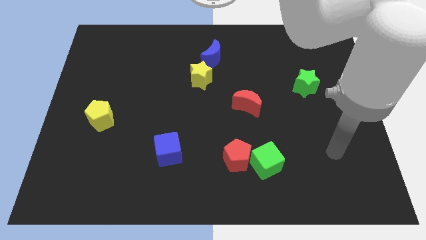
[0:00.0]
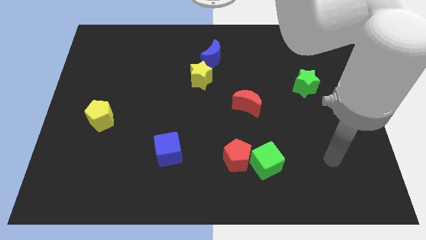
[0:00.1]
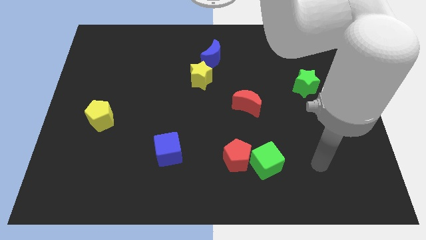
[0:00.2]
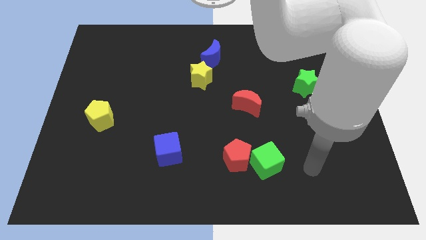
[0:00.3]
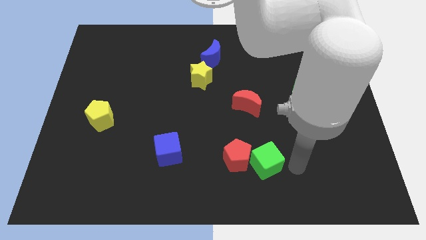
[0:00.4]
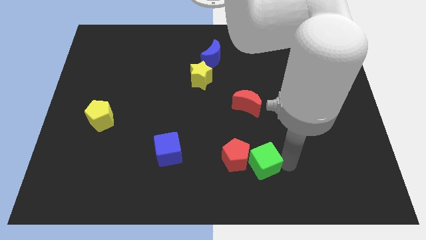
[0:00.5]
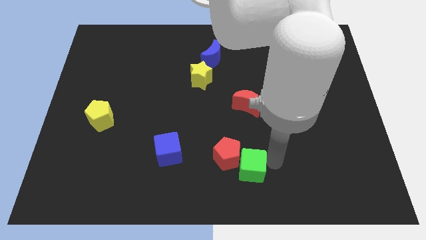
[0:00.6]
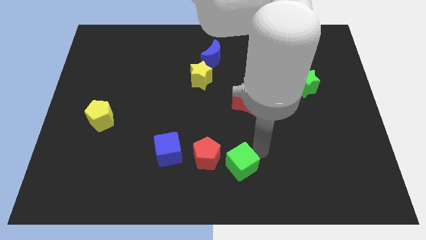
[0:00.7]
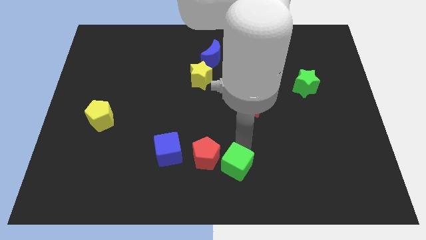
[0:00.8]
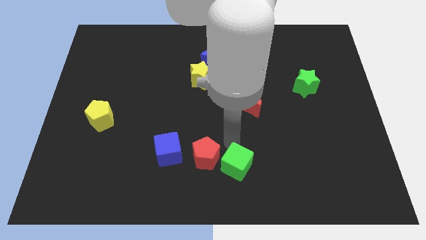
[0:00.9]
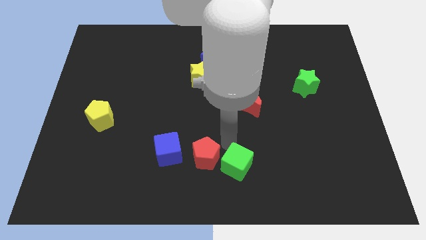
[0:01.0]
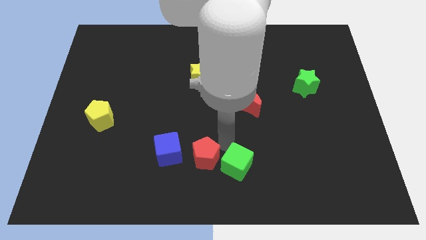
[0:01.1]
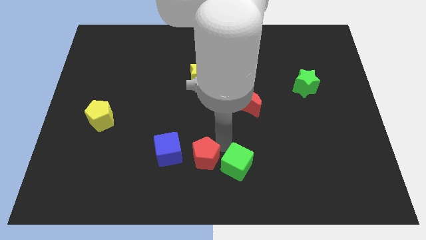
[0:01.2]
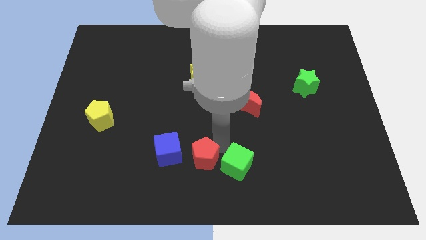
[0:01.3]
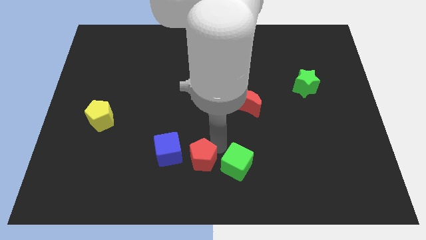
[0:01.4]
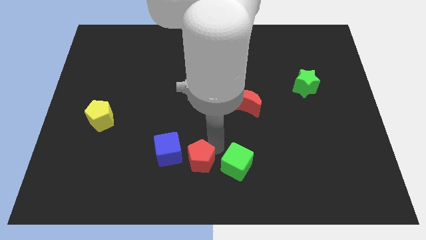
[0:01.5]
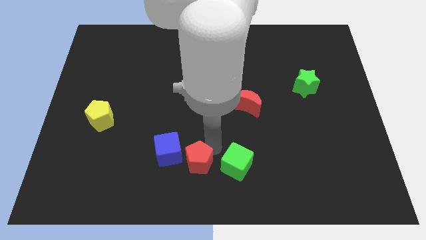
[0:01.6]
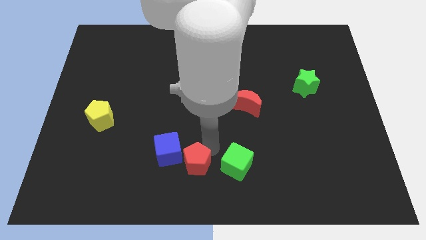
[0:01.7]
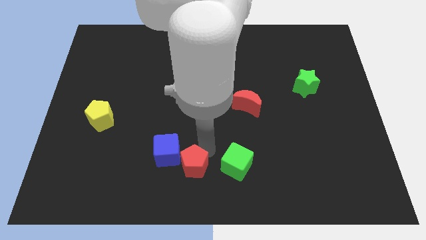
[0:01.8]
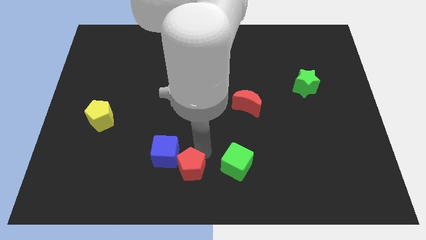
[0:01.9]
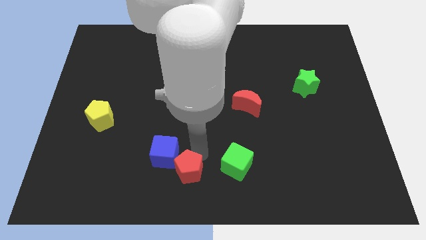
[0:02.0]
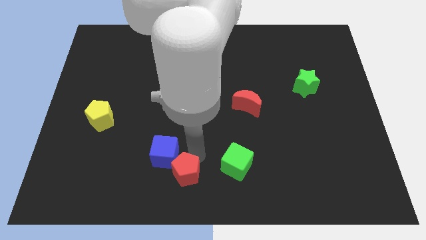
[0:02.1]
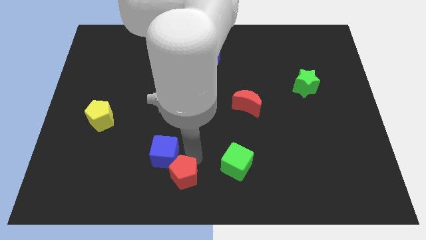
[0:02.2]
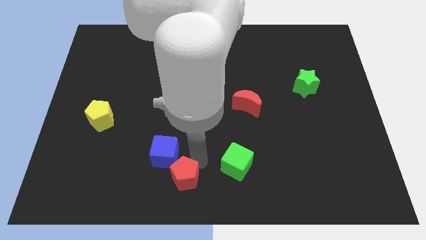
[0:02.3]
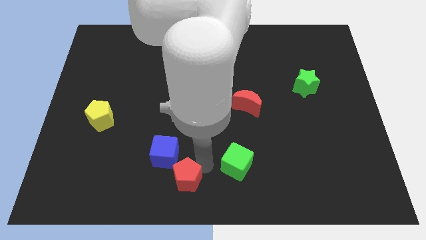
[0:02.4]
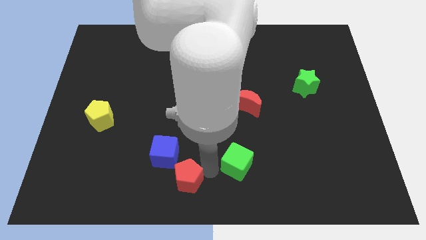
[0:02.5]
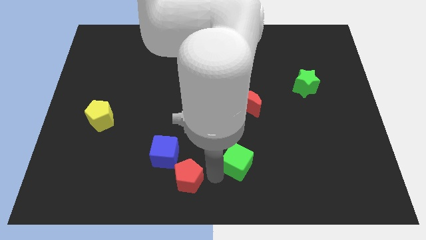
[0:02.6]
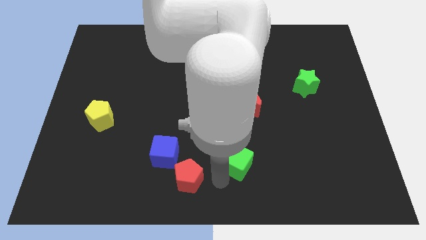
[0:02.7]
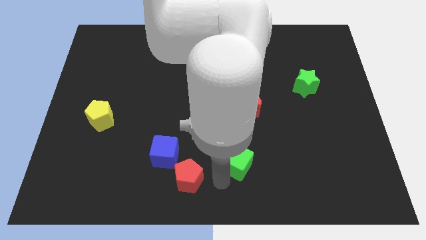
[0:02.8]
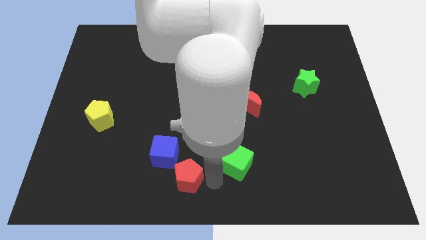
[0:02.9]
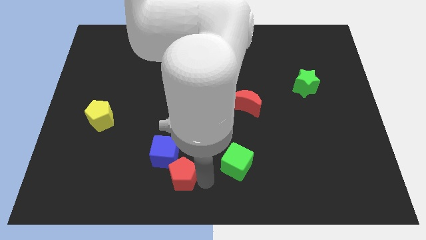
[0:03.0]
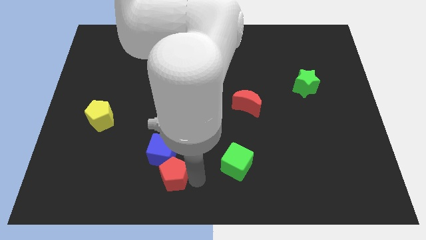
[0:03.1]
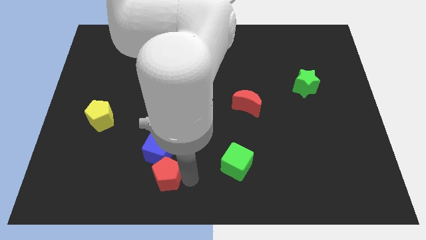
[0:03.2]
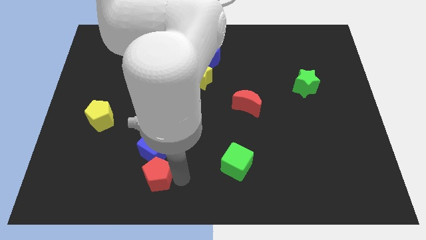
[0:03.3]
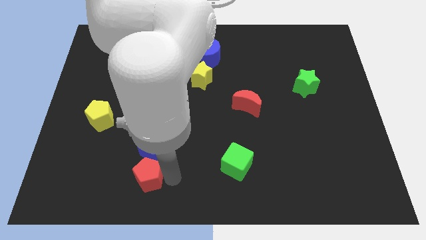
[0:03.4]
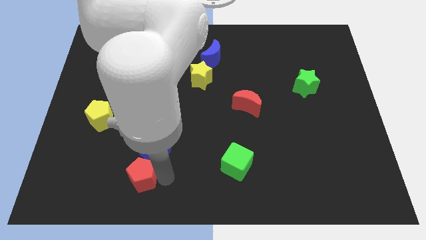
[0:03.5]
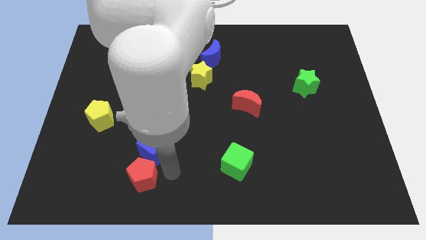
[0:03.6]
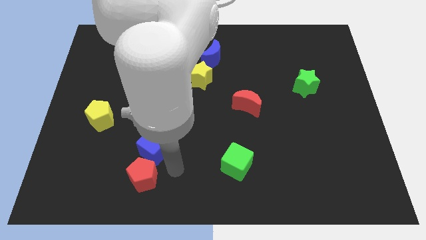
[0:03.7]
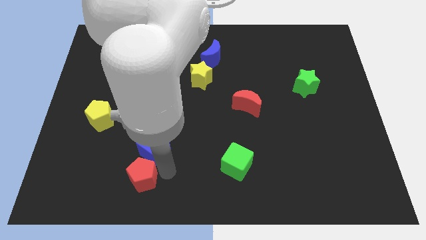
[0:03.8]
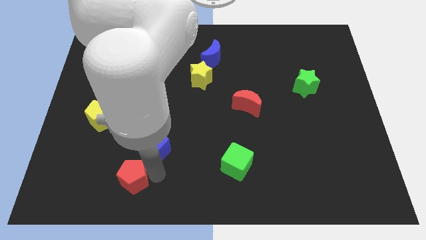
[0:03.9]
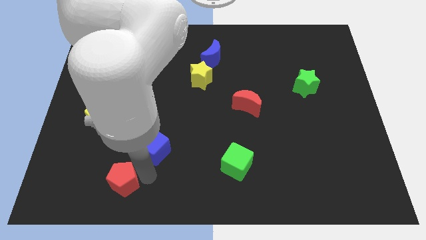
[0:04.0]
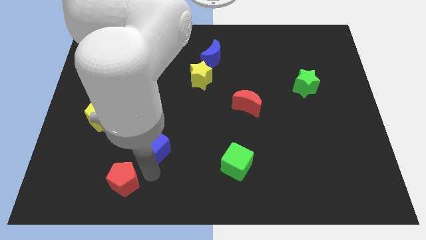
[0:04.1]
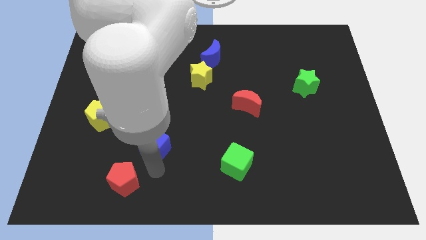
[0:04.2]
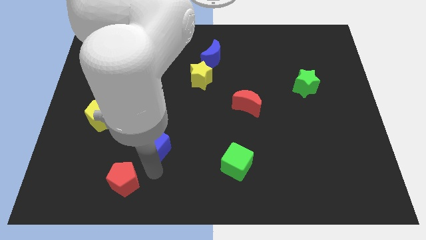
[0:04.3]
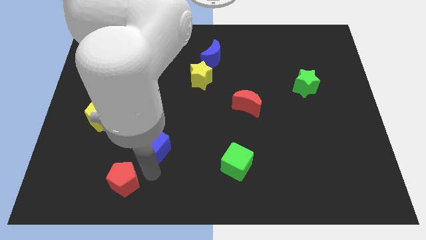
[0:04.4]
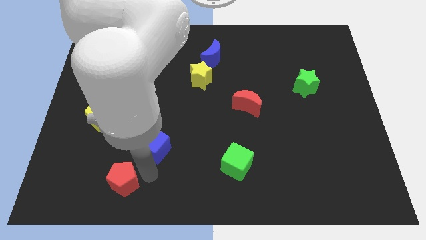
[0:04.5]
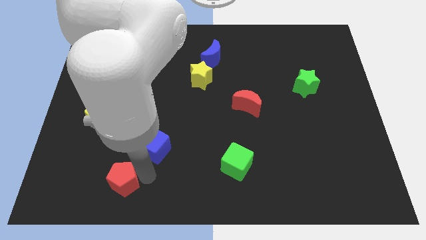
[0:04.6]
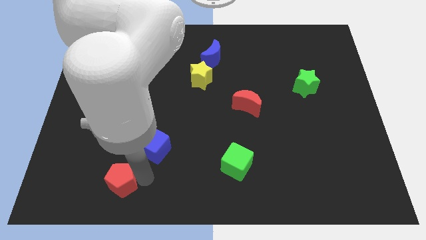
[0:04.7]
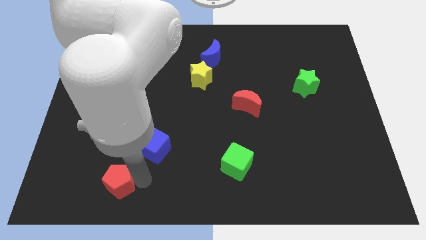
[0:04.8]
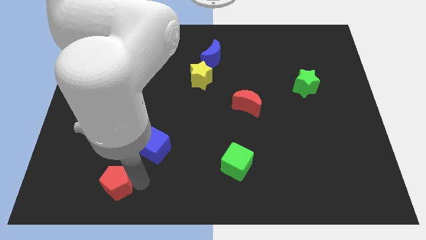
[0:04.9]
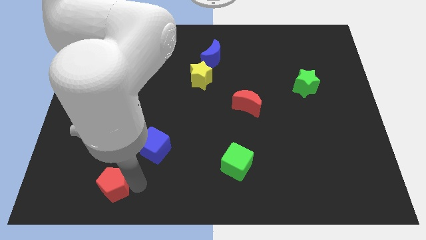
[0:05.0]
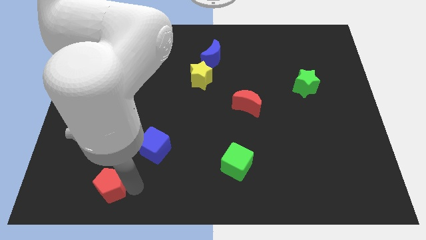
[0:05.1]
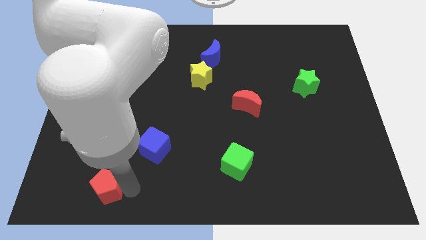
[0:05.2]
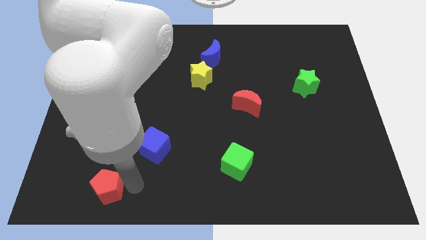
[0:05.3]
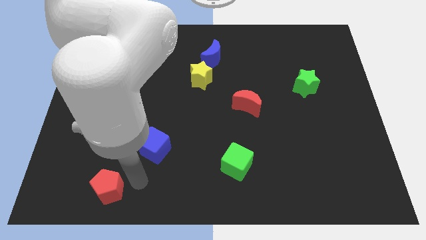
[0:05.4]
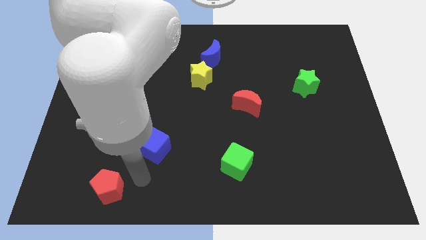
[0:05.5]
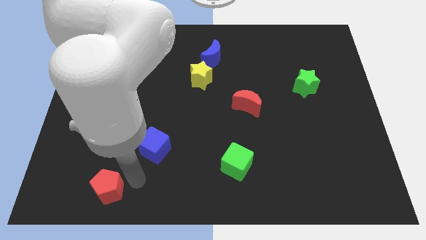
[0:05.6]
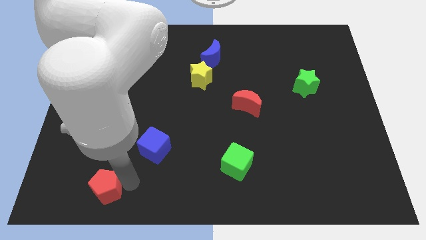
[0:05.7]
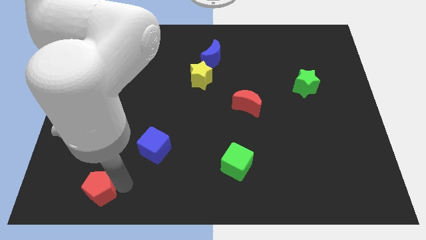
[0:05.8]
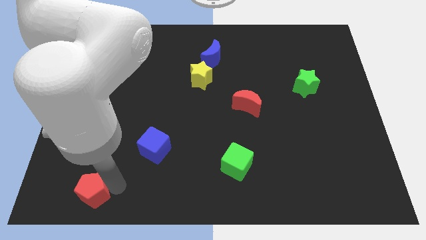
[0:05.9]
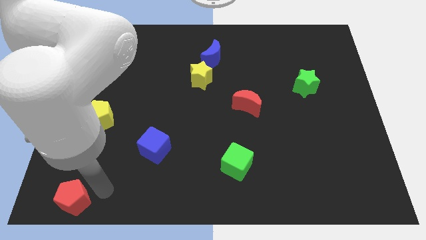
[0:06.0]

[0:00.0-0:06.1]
slide the red pentagon to the lower left corner
